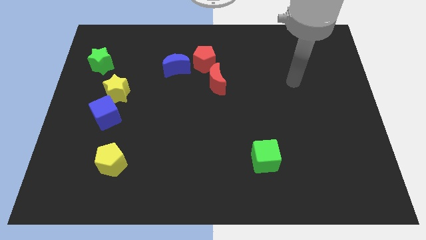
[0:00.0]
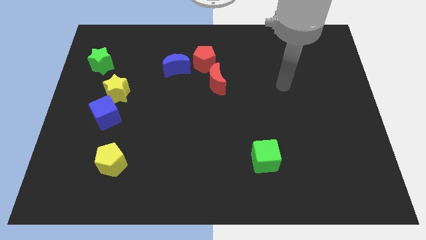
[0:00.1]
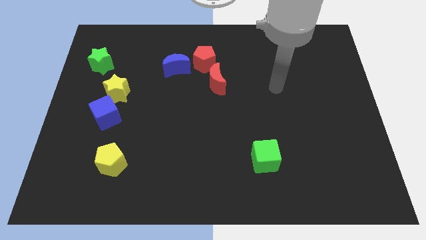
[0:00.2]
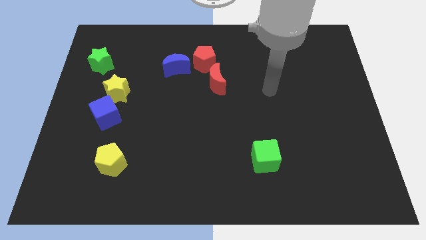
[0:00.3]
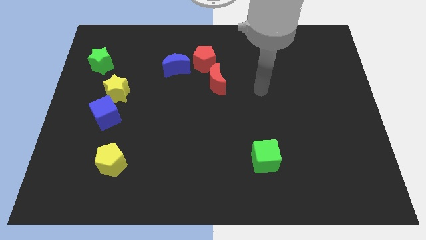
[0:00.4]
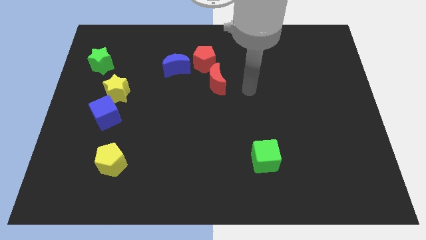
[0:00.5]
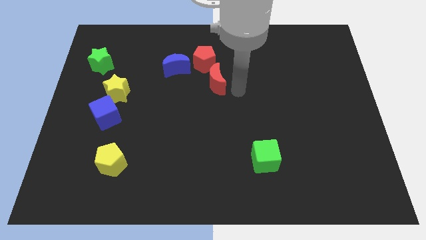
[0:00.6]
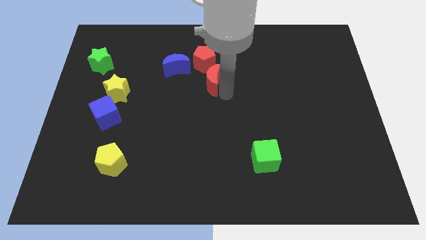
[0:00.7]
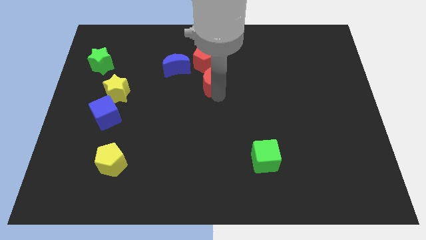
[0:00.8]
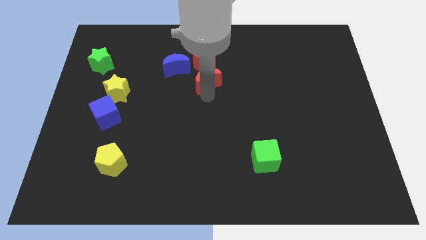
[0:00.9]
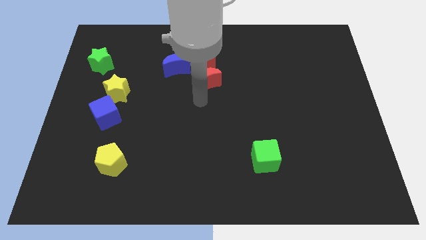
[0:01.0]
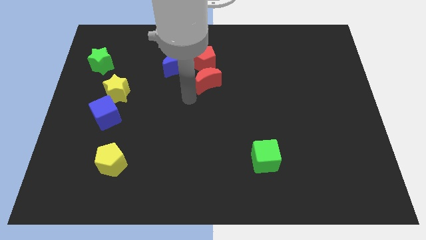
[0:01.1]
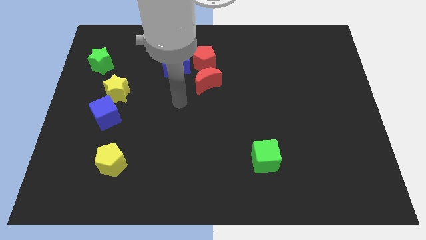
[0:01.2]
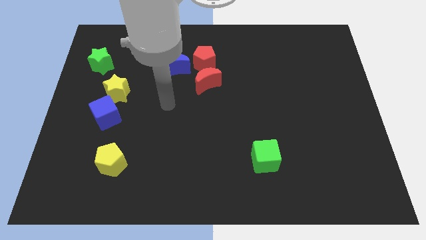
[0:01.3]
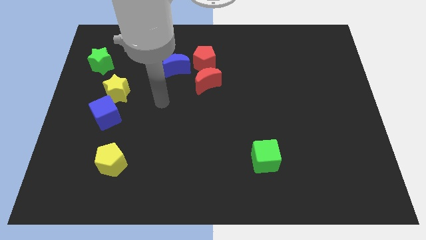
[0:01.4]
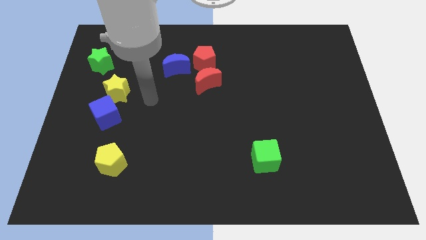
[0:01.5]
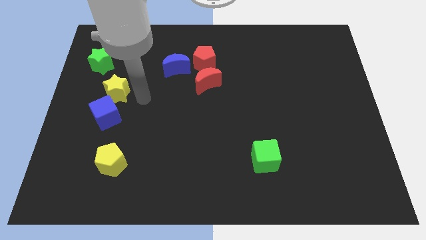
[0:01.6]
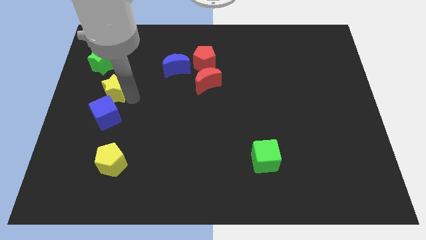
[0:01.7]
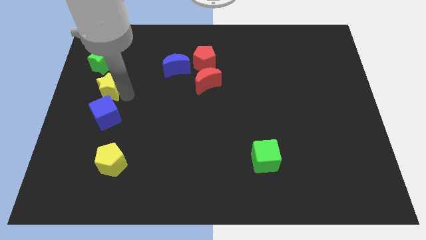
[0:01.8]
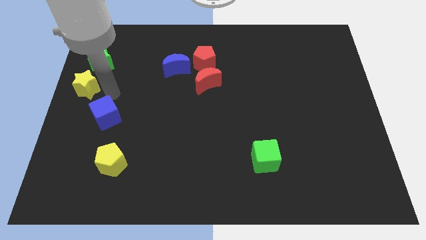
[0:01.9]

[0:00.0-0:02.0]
move the blue cube away from the yellow star

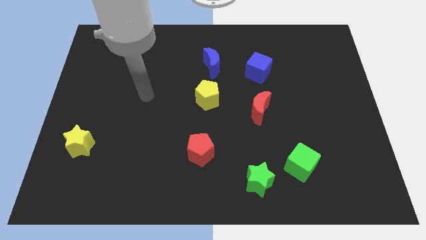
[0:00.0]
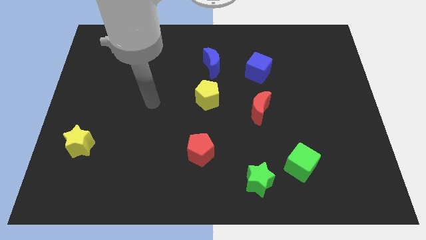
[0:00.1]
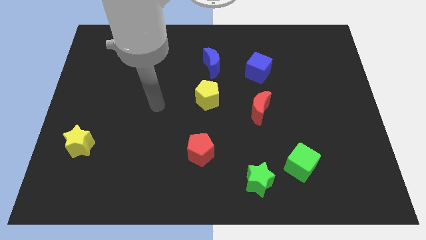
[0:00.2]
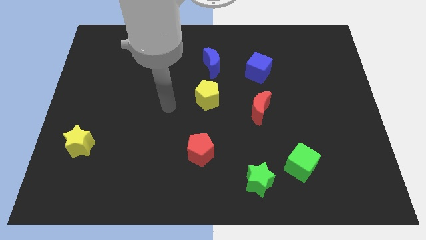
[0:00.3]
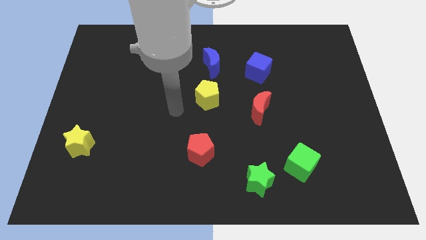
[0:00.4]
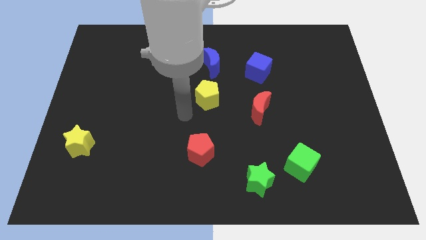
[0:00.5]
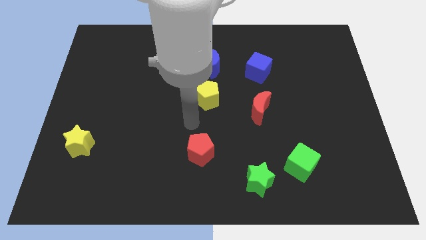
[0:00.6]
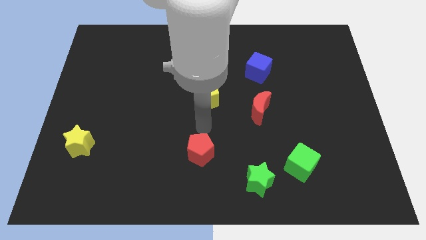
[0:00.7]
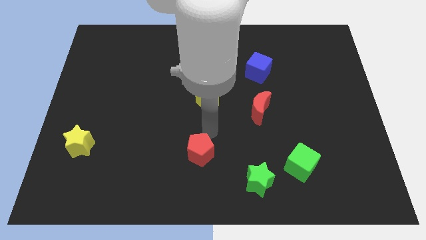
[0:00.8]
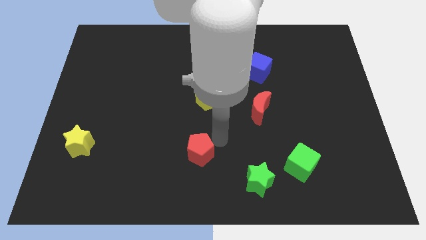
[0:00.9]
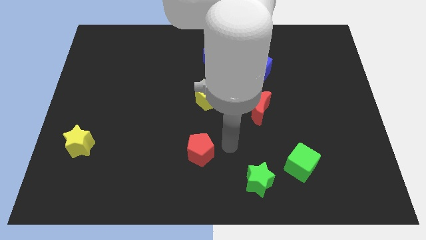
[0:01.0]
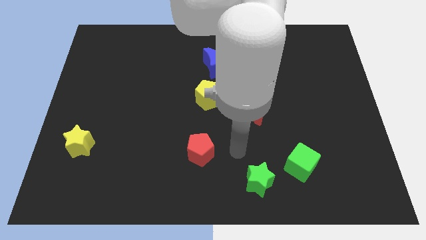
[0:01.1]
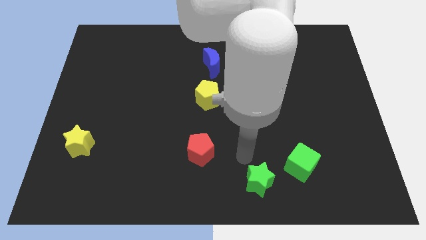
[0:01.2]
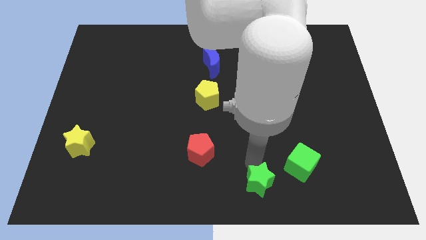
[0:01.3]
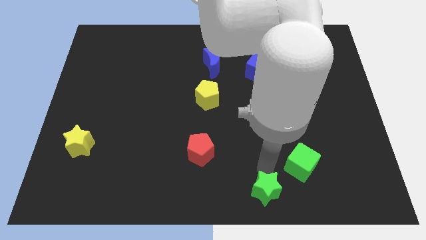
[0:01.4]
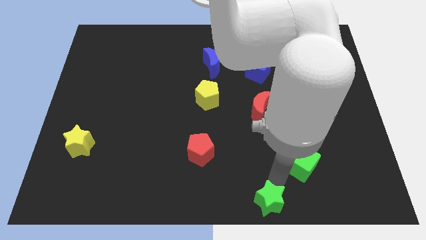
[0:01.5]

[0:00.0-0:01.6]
pull the green cube apart from the green star

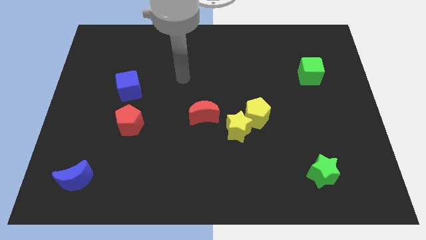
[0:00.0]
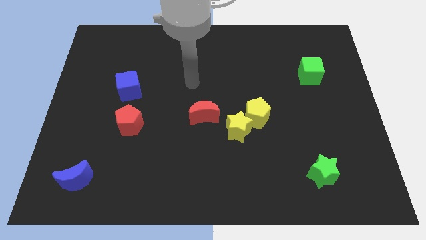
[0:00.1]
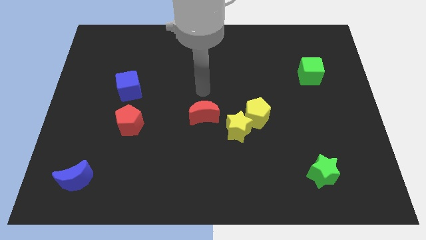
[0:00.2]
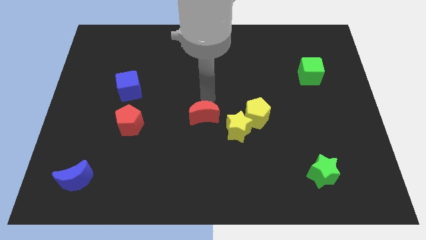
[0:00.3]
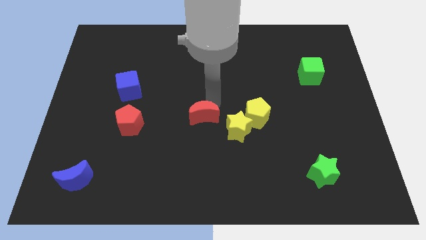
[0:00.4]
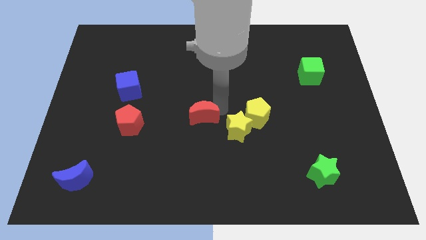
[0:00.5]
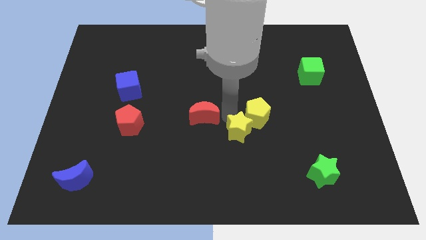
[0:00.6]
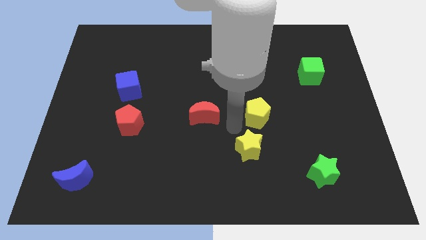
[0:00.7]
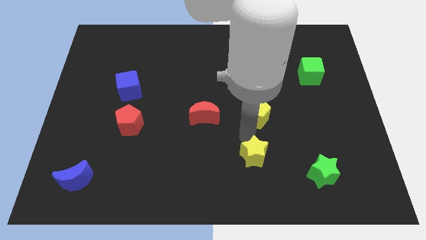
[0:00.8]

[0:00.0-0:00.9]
move the yellow pentagon away from the yellow star

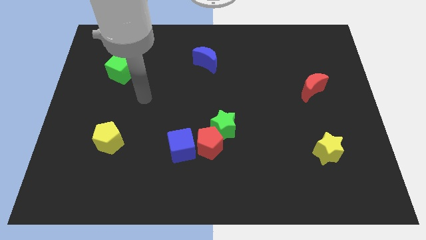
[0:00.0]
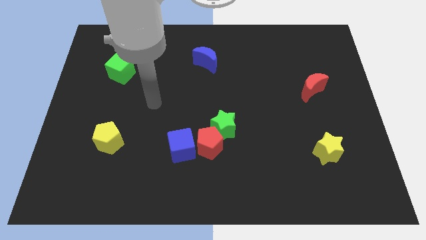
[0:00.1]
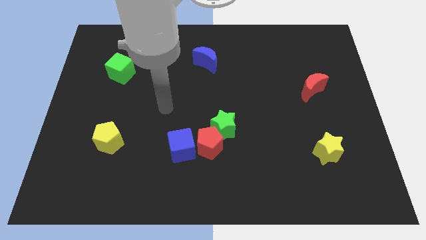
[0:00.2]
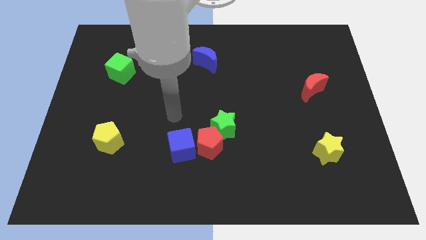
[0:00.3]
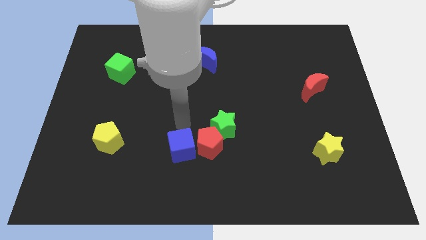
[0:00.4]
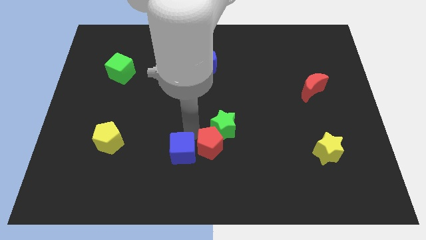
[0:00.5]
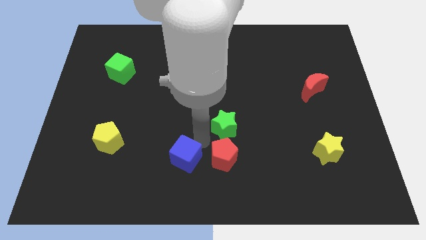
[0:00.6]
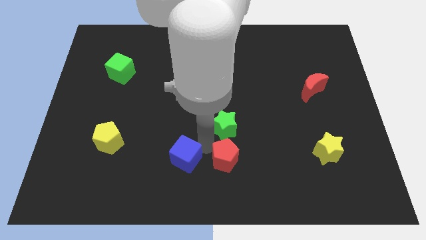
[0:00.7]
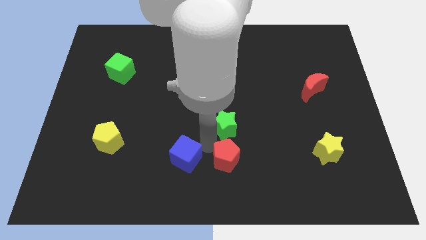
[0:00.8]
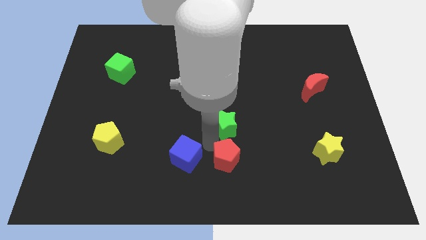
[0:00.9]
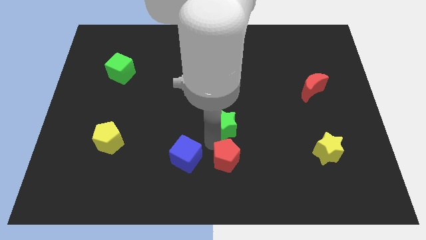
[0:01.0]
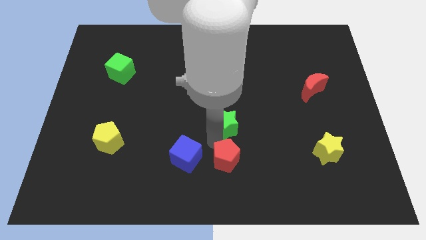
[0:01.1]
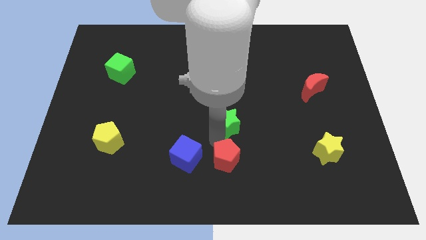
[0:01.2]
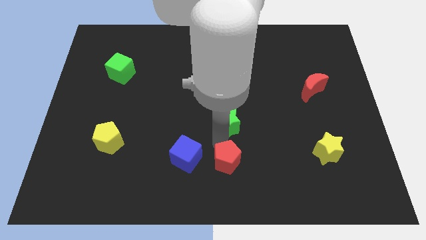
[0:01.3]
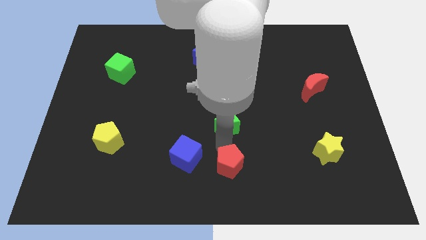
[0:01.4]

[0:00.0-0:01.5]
separate the green star from the red pentagon
